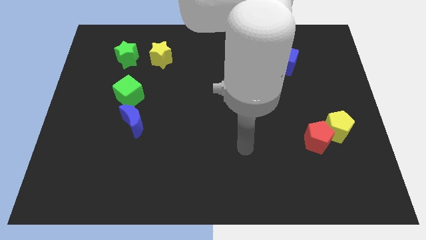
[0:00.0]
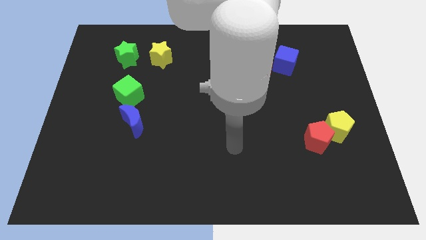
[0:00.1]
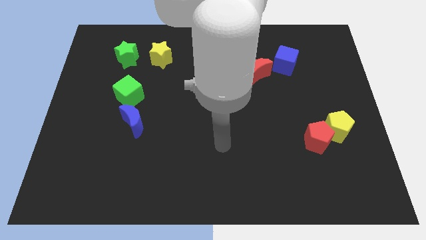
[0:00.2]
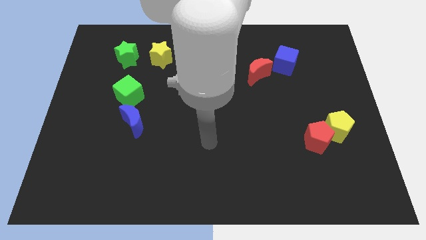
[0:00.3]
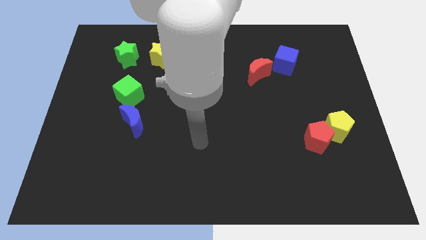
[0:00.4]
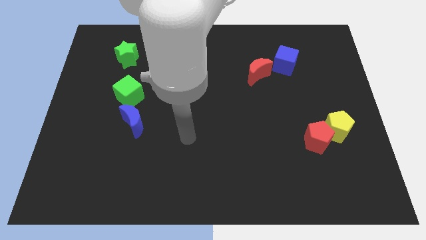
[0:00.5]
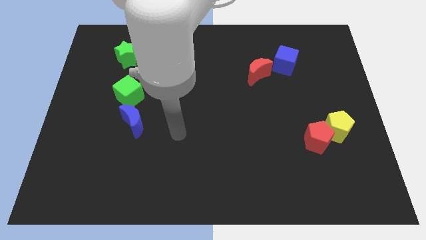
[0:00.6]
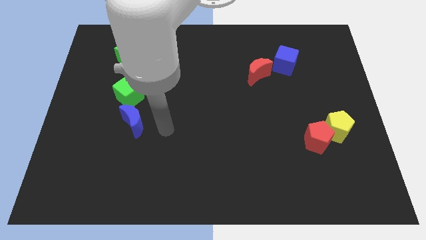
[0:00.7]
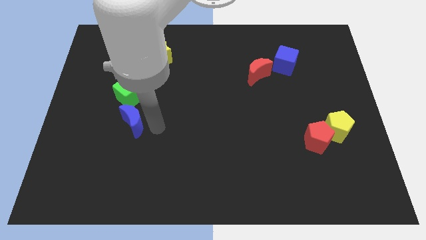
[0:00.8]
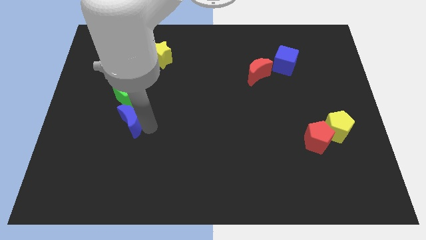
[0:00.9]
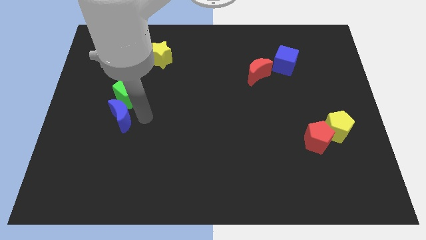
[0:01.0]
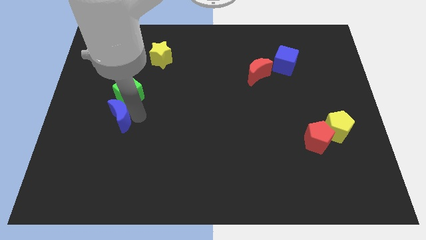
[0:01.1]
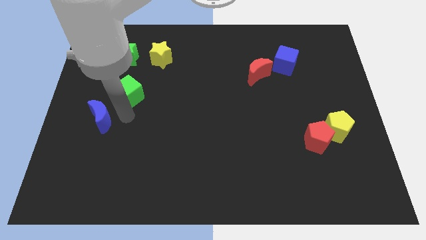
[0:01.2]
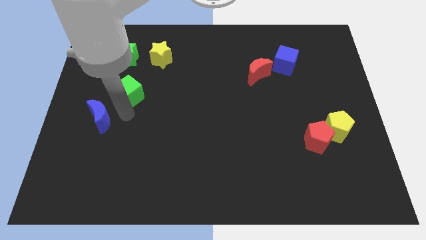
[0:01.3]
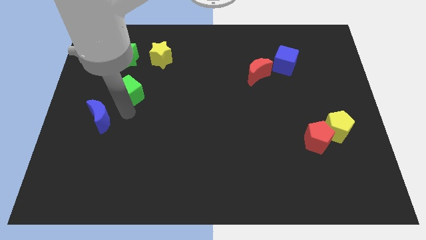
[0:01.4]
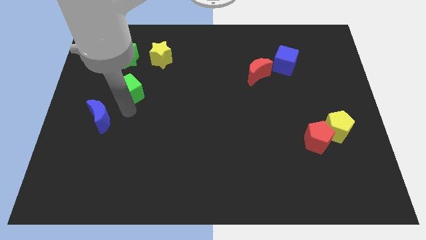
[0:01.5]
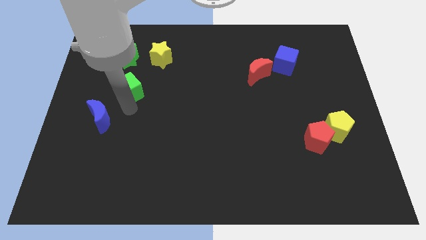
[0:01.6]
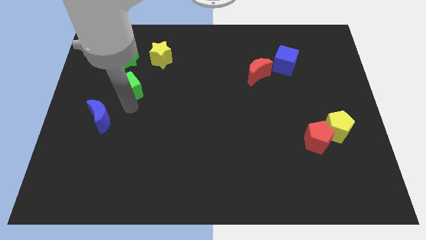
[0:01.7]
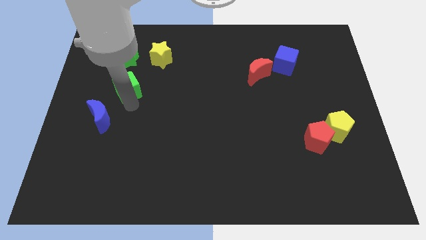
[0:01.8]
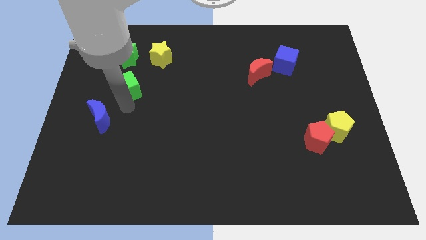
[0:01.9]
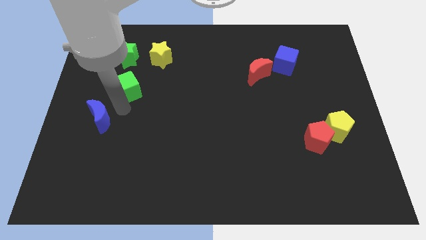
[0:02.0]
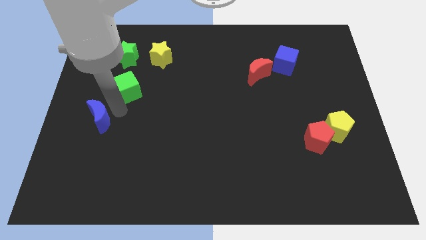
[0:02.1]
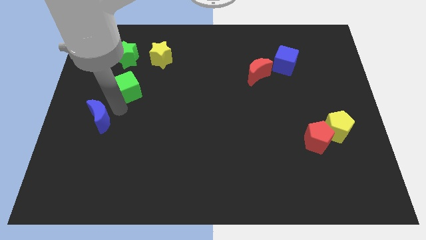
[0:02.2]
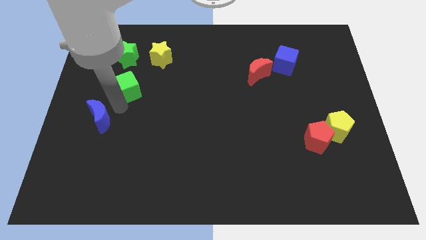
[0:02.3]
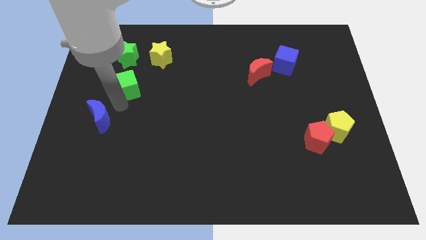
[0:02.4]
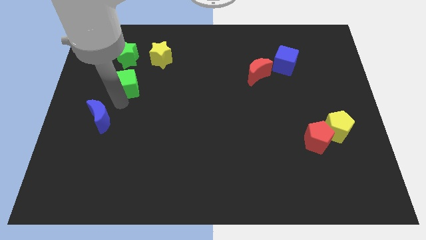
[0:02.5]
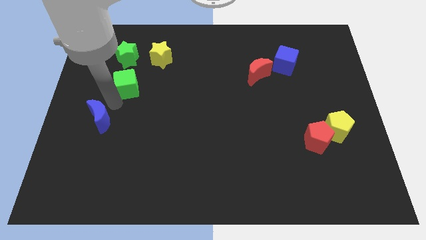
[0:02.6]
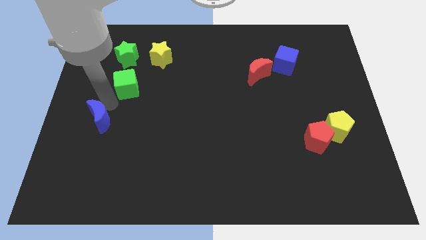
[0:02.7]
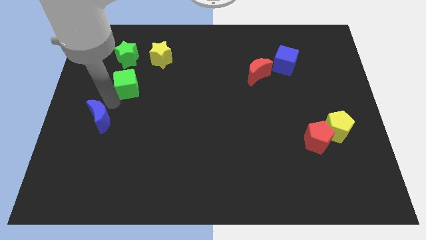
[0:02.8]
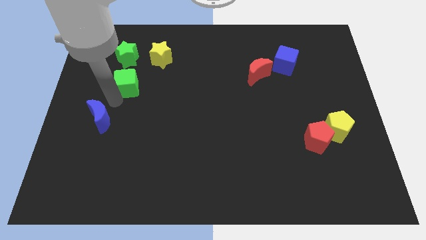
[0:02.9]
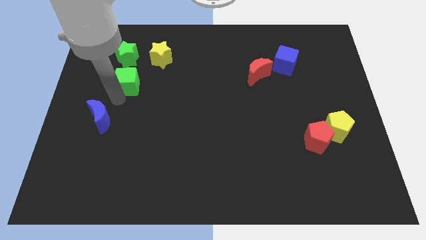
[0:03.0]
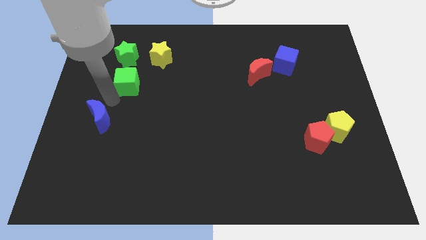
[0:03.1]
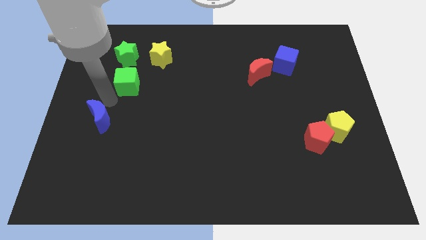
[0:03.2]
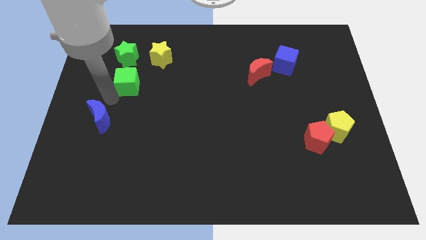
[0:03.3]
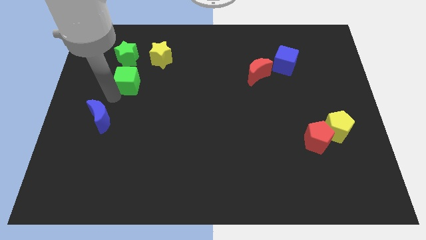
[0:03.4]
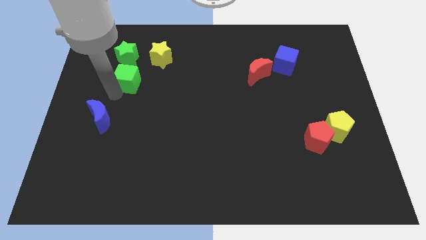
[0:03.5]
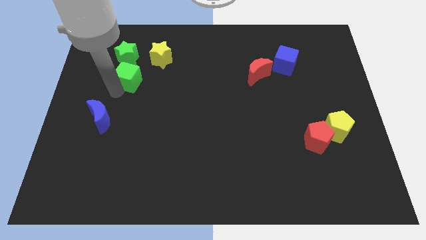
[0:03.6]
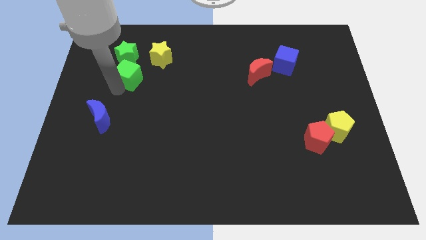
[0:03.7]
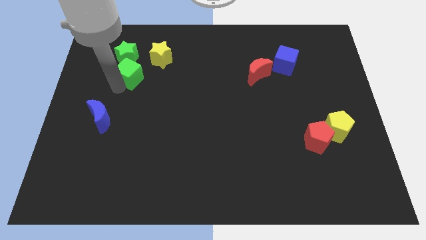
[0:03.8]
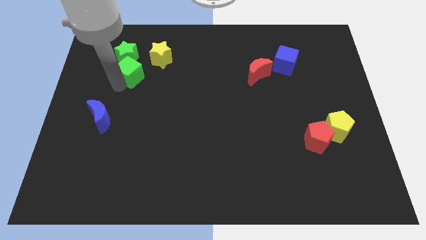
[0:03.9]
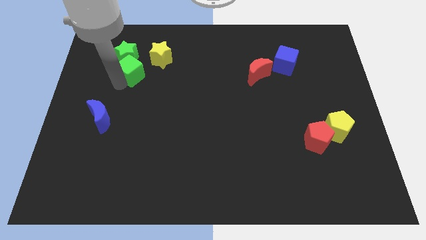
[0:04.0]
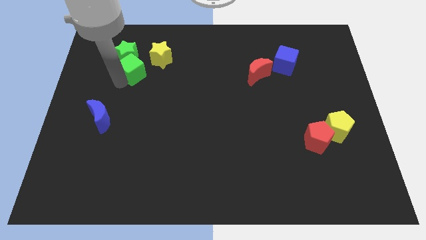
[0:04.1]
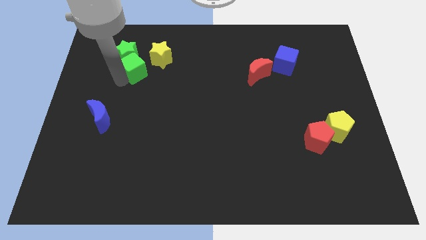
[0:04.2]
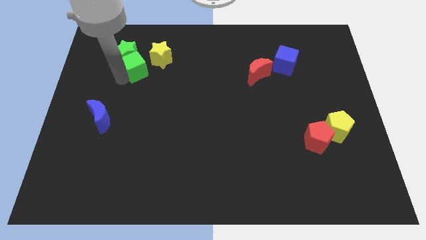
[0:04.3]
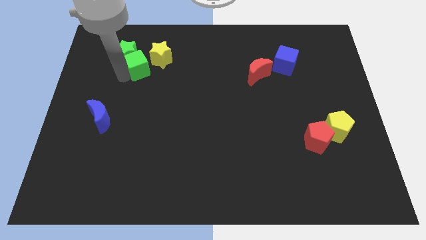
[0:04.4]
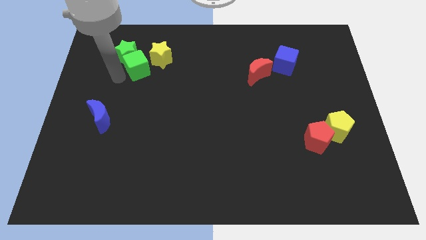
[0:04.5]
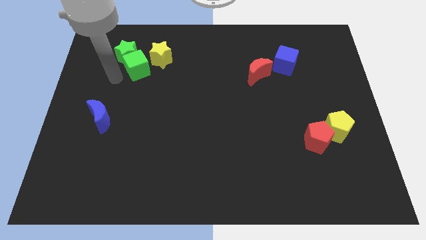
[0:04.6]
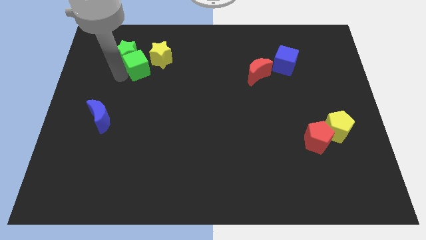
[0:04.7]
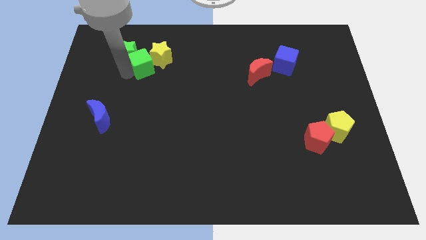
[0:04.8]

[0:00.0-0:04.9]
put the green cube to the yellow star

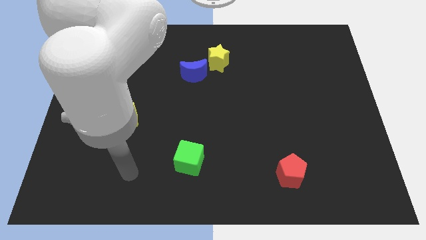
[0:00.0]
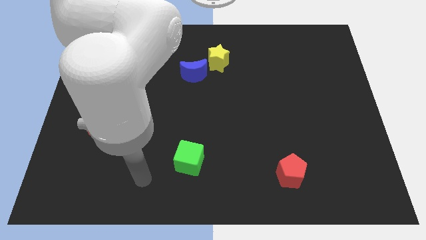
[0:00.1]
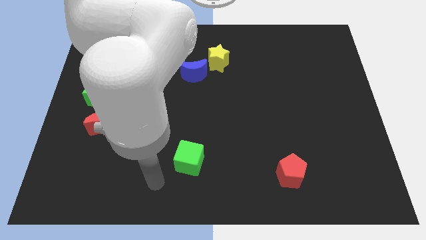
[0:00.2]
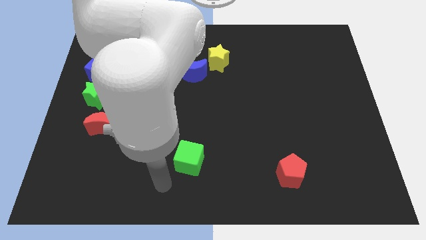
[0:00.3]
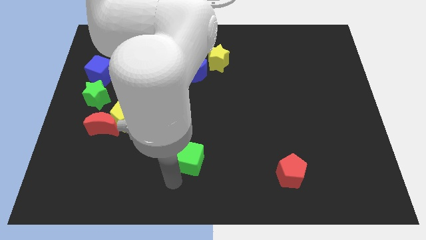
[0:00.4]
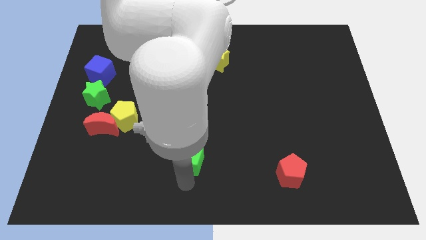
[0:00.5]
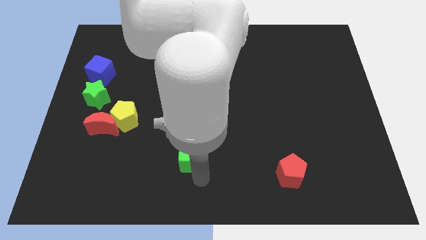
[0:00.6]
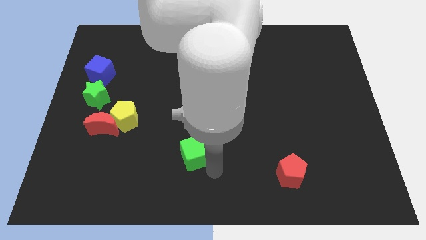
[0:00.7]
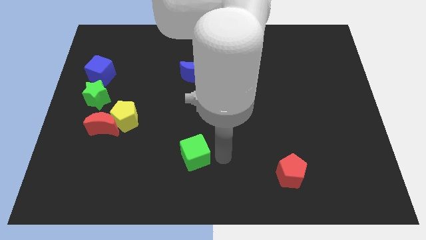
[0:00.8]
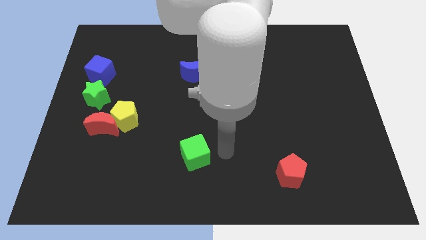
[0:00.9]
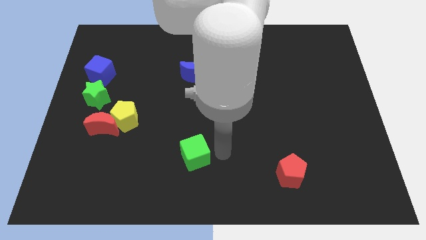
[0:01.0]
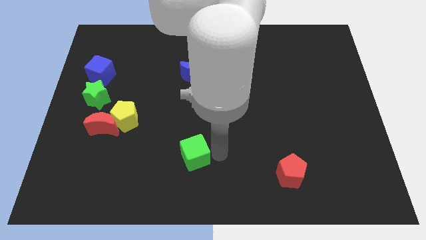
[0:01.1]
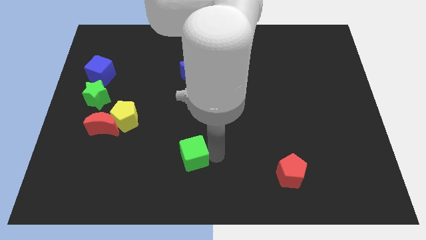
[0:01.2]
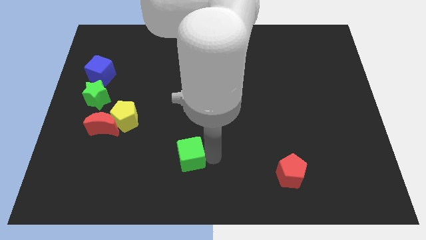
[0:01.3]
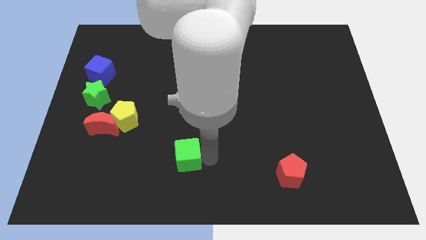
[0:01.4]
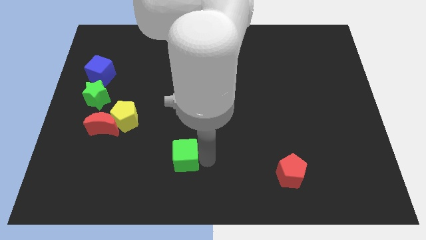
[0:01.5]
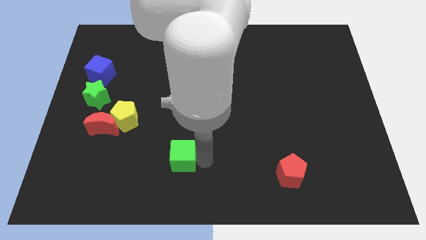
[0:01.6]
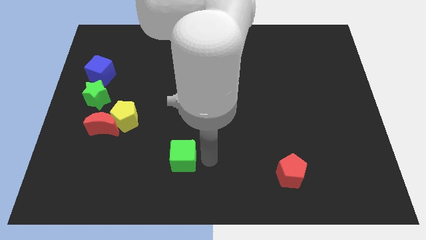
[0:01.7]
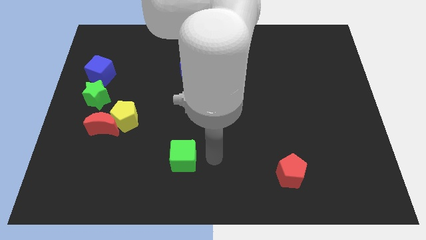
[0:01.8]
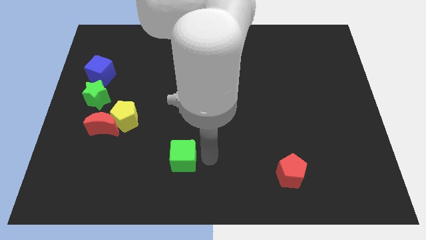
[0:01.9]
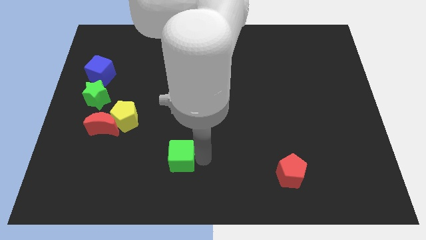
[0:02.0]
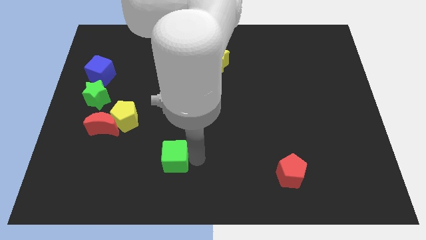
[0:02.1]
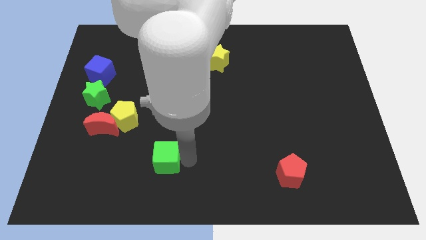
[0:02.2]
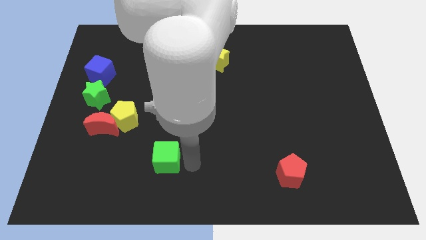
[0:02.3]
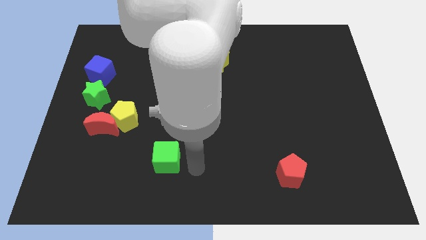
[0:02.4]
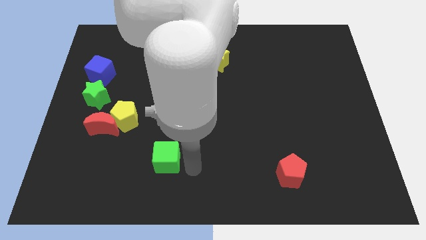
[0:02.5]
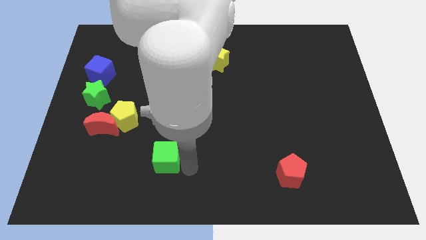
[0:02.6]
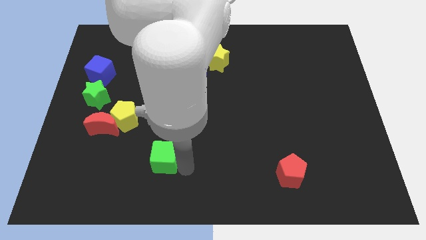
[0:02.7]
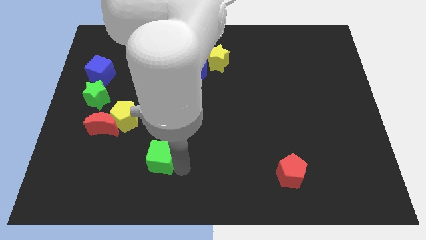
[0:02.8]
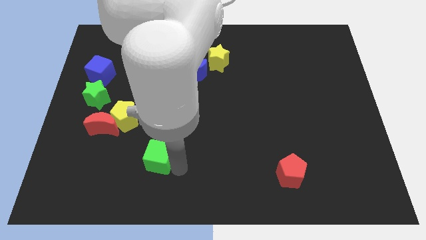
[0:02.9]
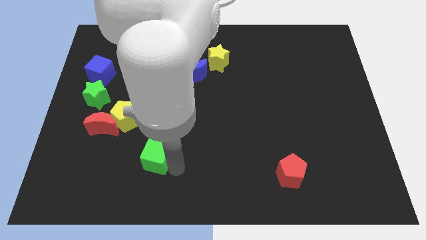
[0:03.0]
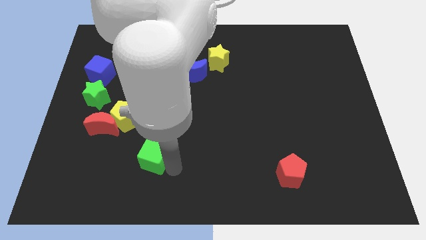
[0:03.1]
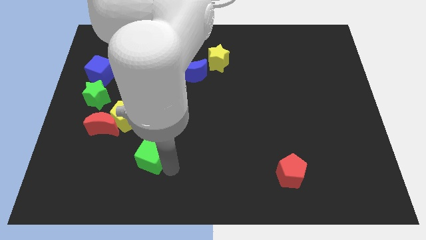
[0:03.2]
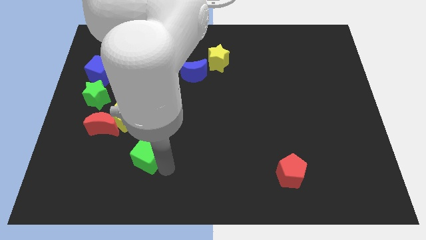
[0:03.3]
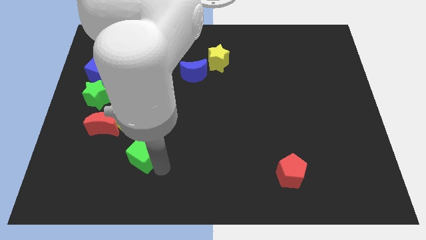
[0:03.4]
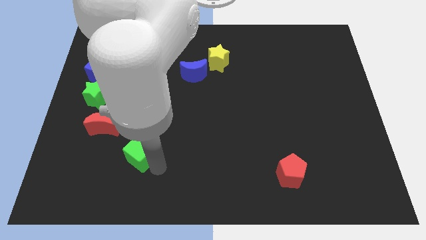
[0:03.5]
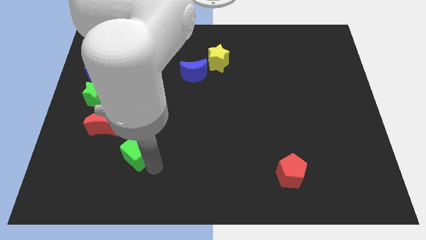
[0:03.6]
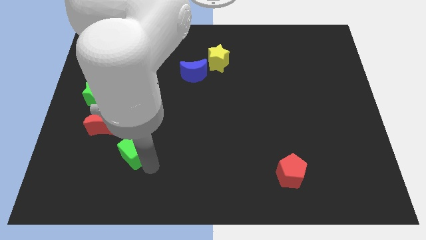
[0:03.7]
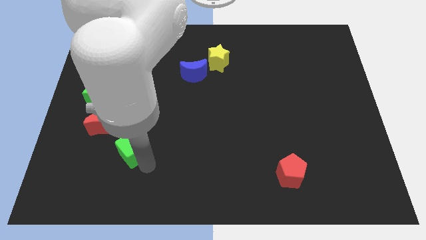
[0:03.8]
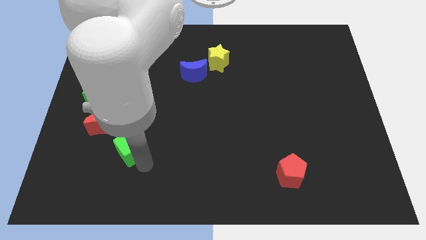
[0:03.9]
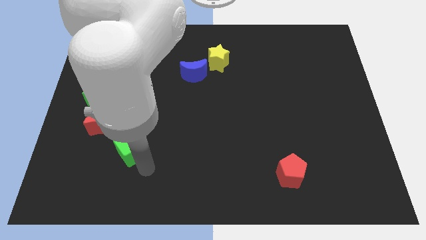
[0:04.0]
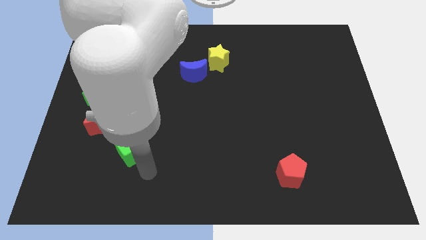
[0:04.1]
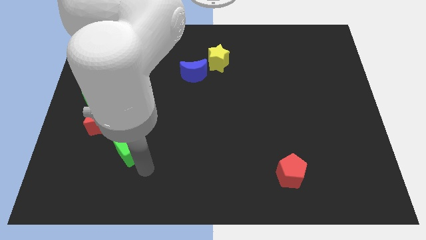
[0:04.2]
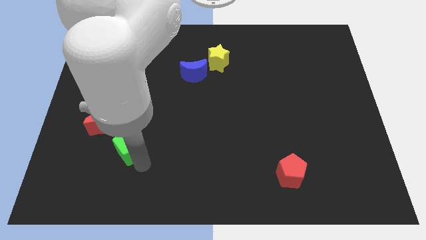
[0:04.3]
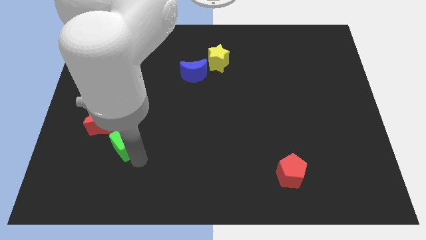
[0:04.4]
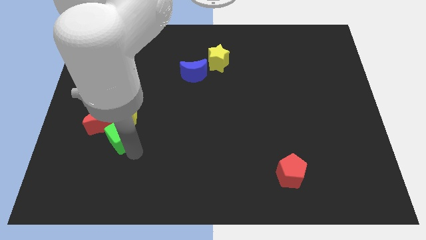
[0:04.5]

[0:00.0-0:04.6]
push the green cube to the red moon
